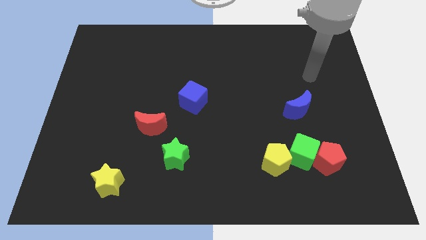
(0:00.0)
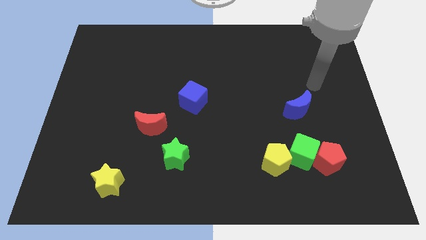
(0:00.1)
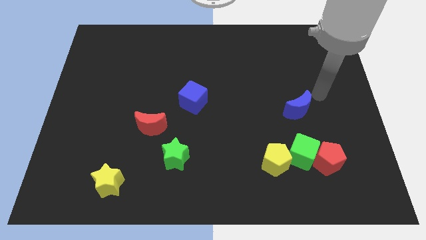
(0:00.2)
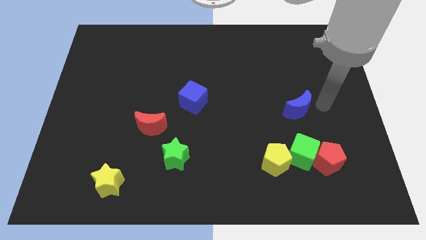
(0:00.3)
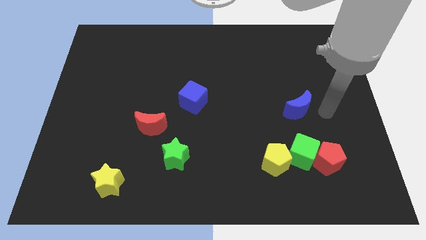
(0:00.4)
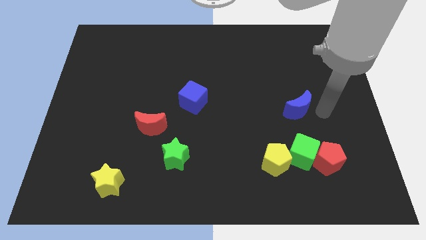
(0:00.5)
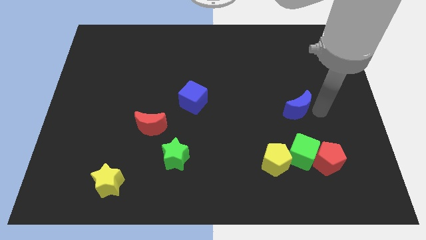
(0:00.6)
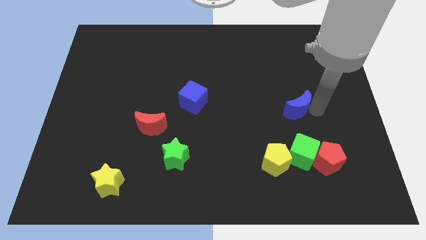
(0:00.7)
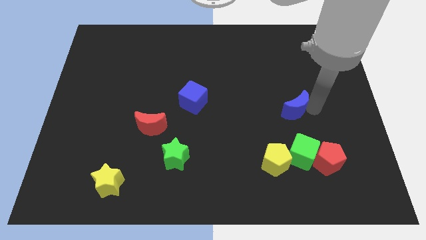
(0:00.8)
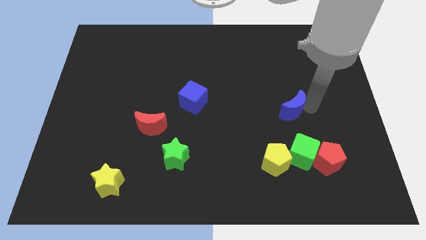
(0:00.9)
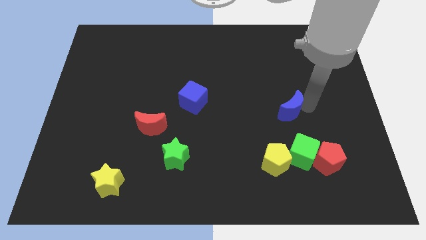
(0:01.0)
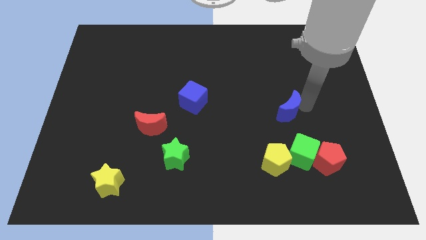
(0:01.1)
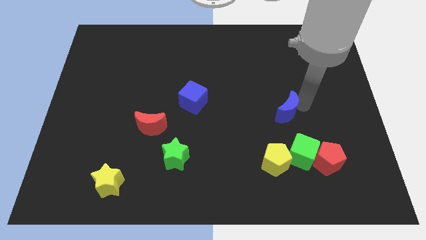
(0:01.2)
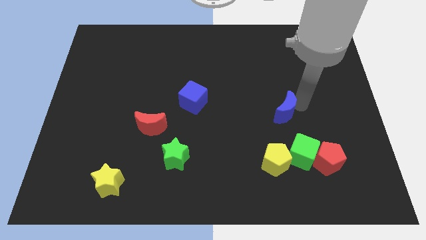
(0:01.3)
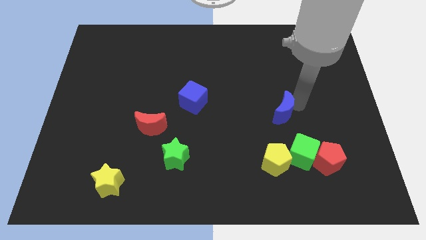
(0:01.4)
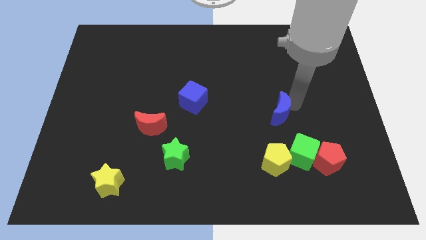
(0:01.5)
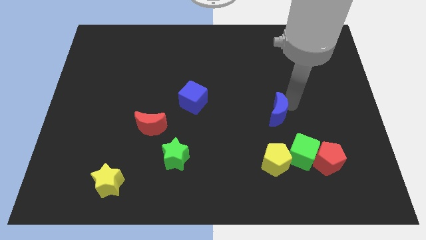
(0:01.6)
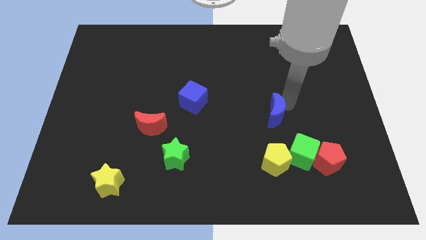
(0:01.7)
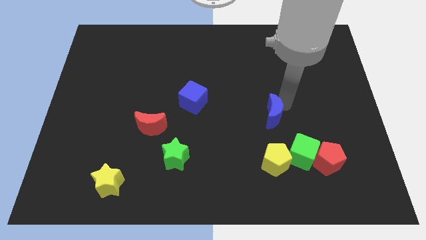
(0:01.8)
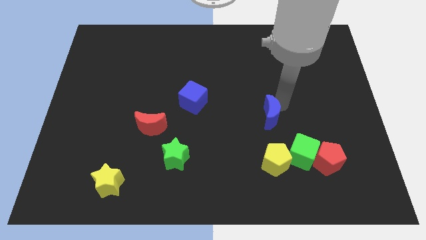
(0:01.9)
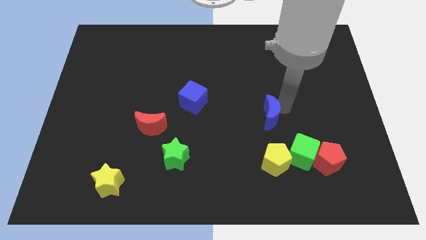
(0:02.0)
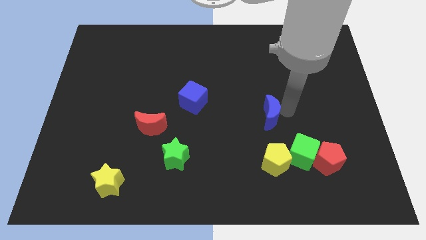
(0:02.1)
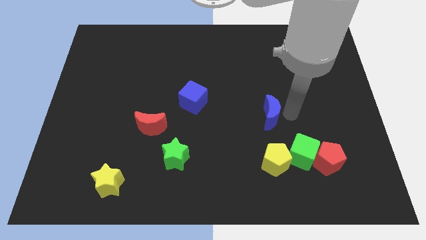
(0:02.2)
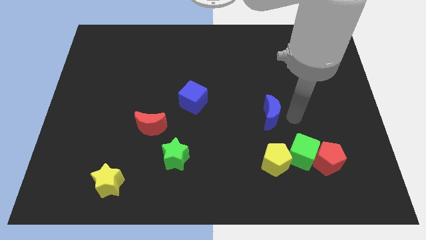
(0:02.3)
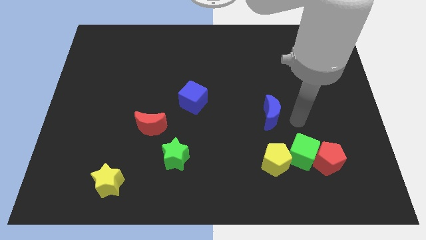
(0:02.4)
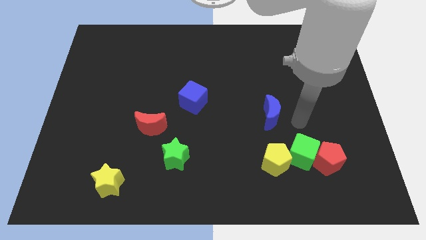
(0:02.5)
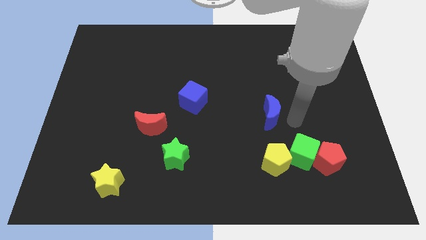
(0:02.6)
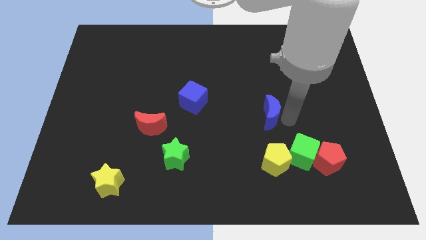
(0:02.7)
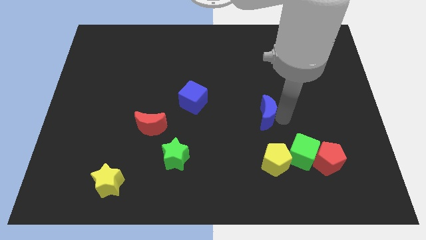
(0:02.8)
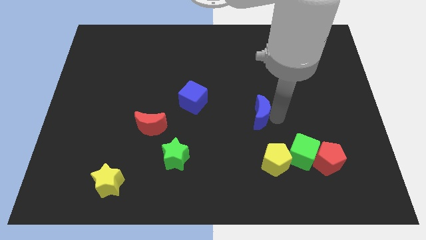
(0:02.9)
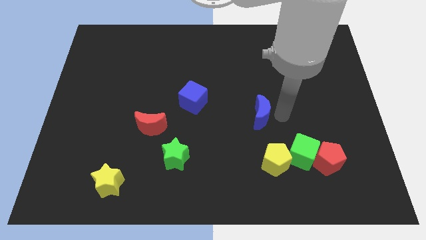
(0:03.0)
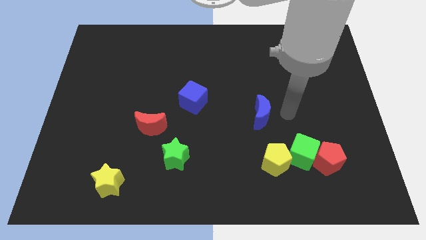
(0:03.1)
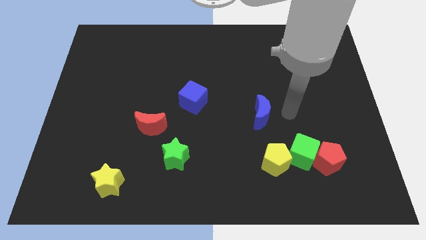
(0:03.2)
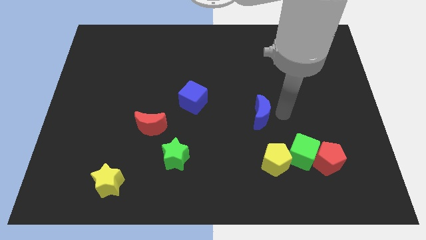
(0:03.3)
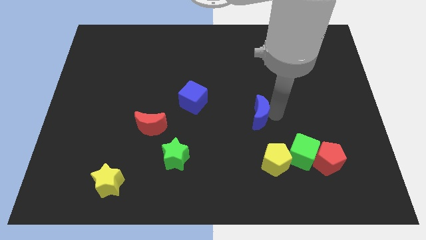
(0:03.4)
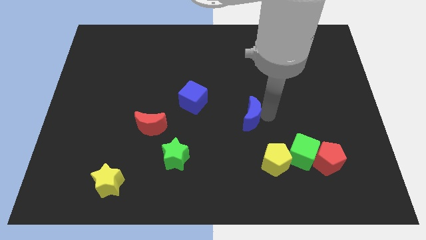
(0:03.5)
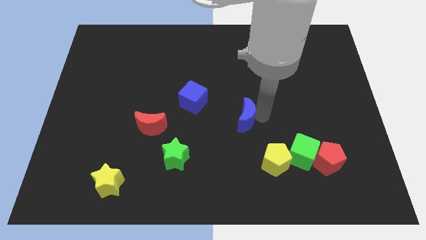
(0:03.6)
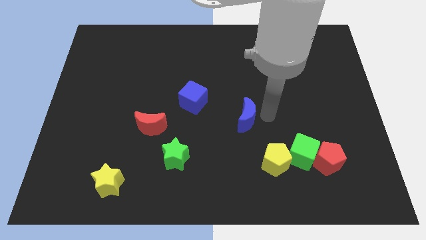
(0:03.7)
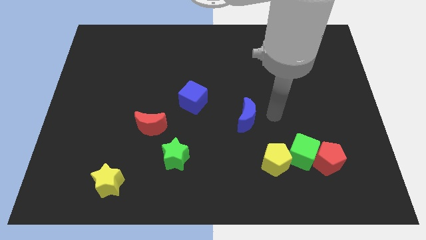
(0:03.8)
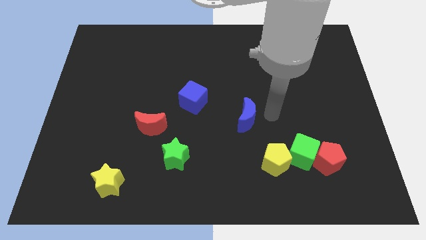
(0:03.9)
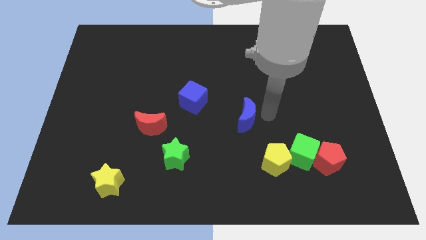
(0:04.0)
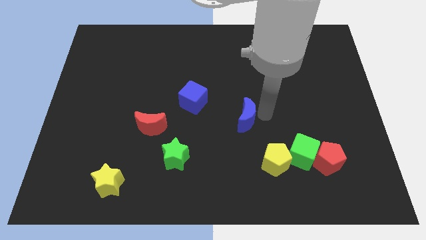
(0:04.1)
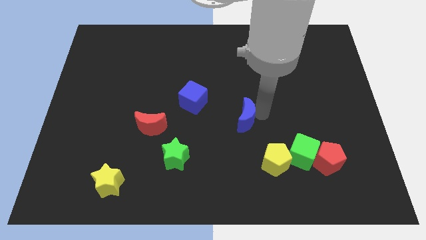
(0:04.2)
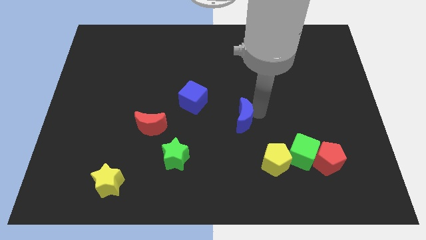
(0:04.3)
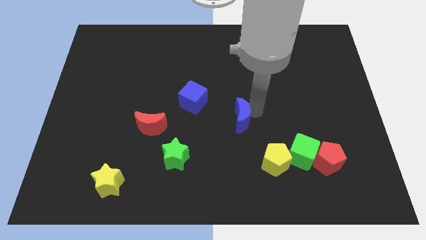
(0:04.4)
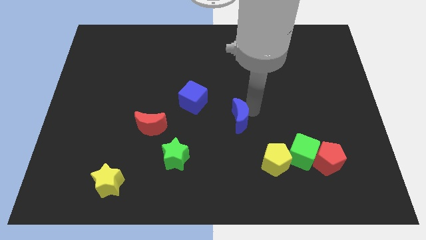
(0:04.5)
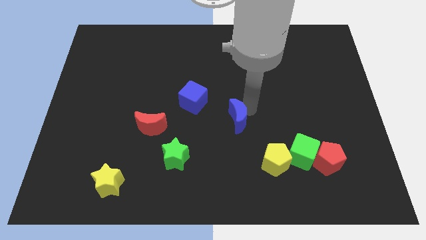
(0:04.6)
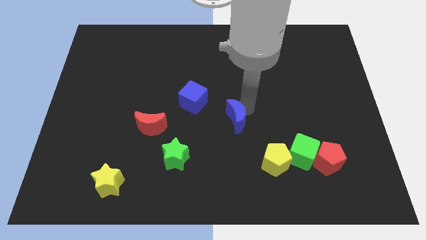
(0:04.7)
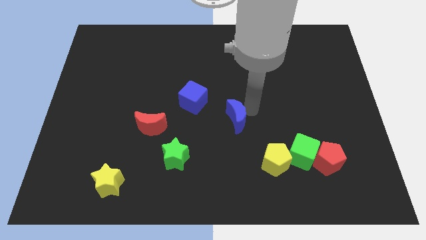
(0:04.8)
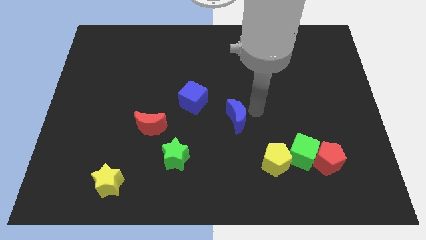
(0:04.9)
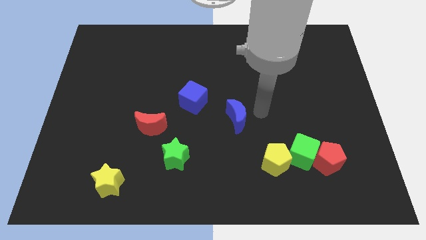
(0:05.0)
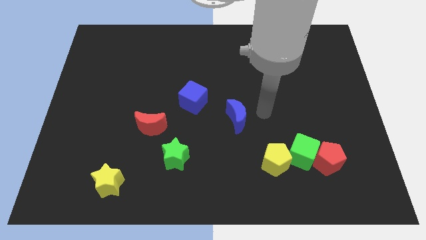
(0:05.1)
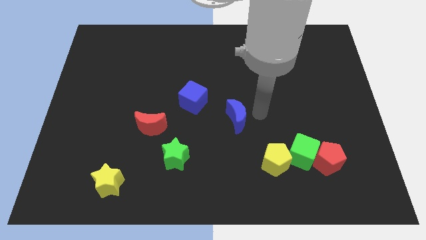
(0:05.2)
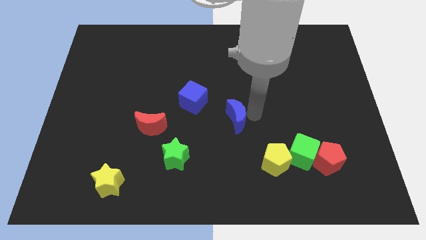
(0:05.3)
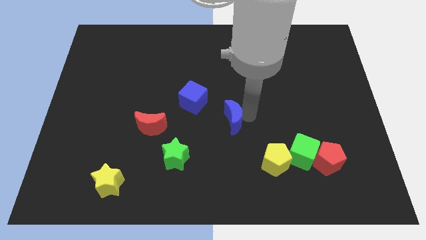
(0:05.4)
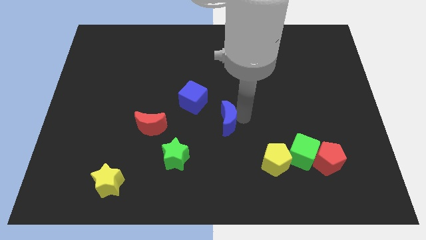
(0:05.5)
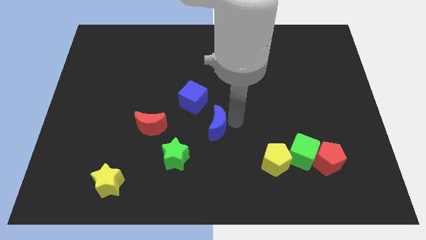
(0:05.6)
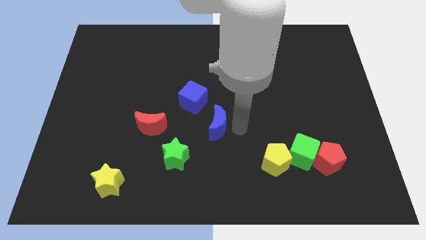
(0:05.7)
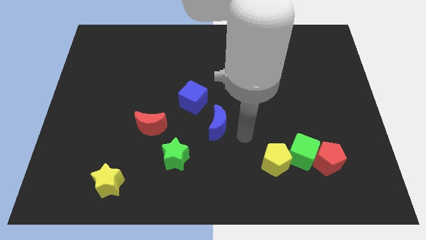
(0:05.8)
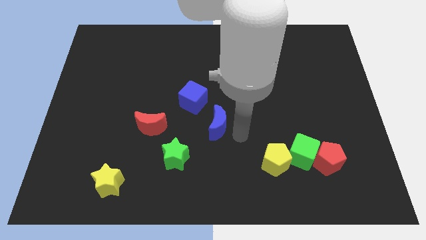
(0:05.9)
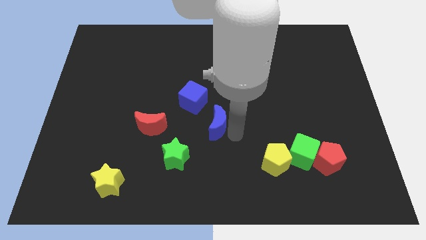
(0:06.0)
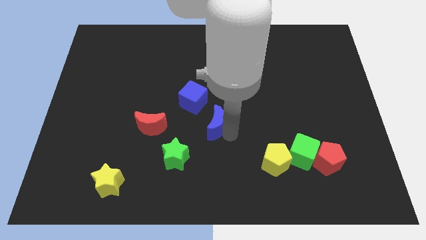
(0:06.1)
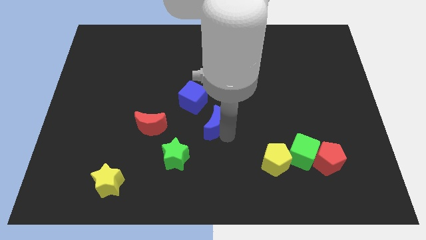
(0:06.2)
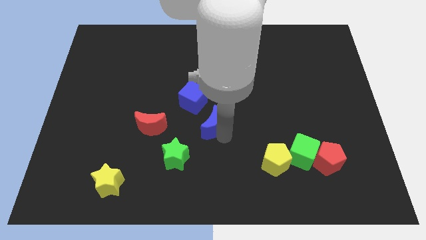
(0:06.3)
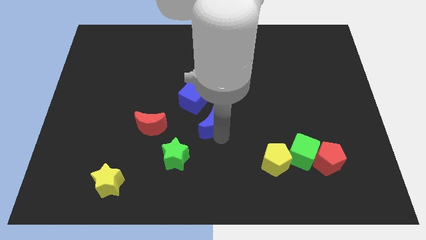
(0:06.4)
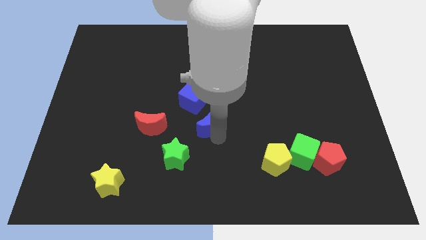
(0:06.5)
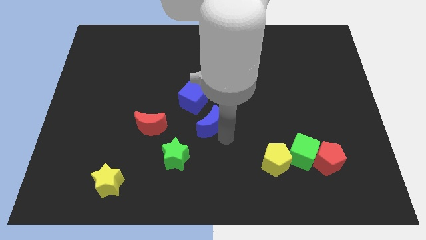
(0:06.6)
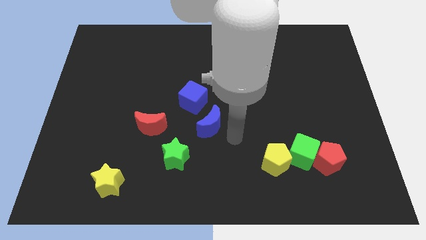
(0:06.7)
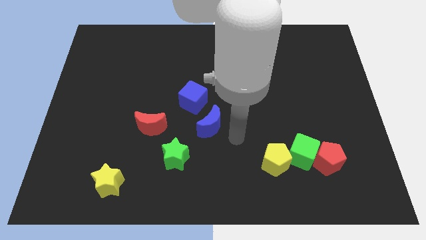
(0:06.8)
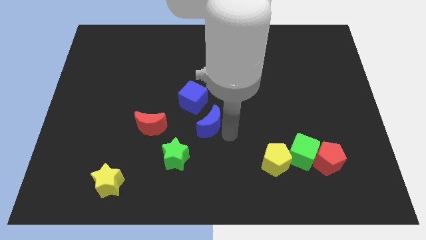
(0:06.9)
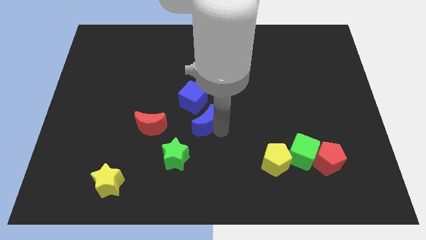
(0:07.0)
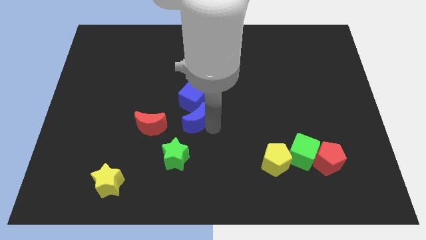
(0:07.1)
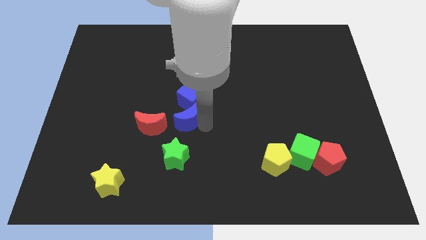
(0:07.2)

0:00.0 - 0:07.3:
push the blue moon diagonally up and to the right of the red moon

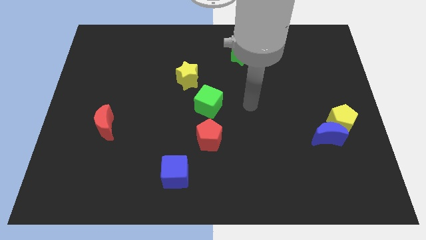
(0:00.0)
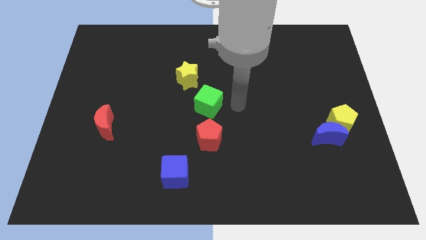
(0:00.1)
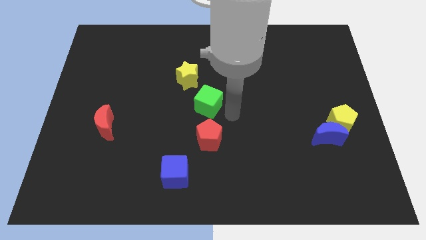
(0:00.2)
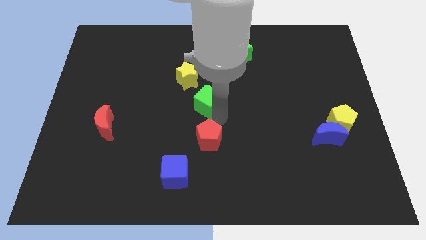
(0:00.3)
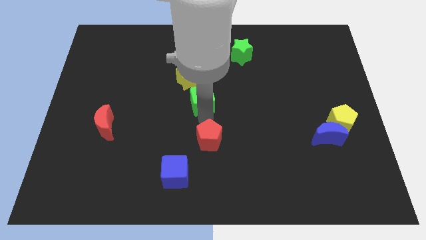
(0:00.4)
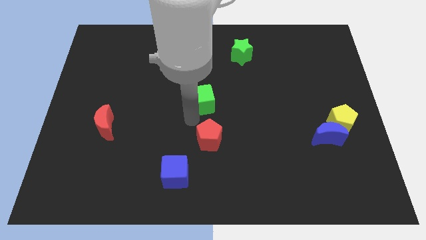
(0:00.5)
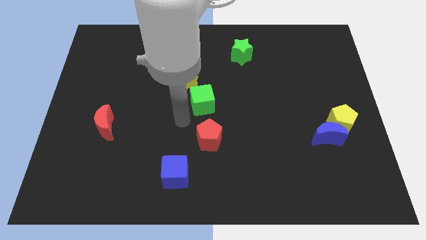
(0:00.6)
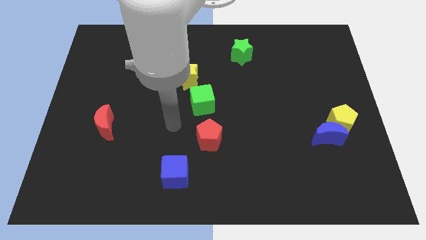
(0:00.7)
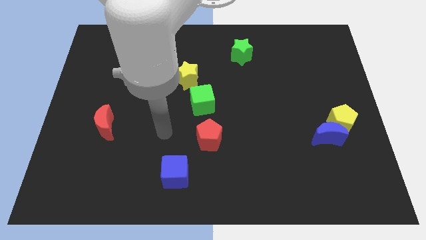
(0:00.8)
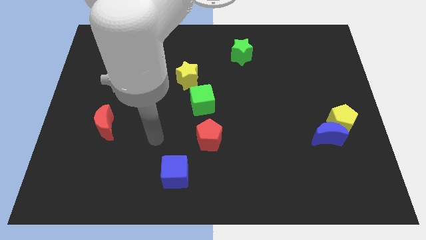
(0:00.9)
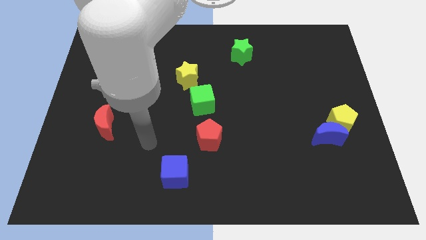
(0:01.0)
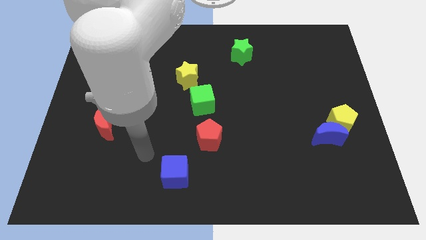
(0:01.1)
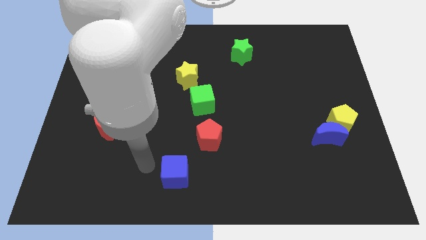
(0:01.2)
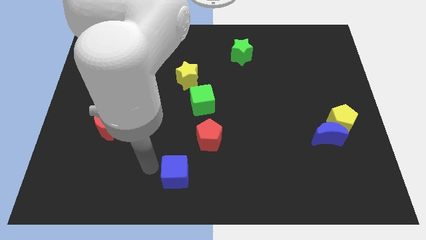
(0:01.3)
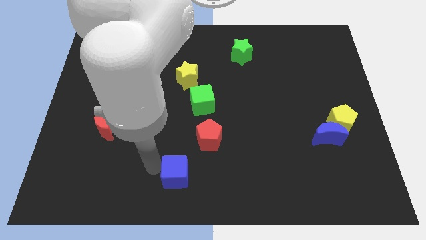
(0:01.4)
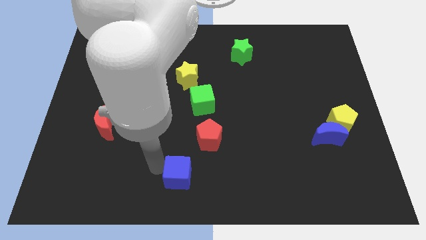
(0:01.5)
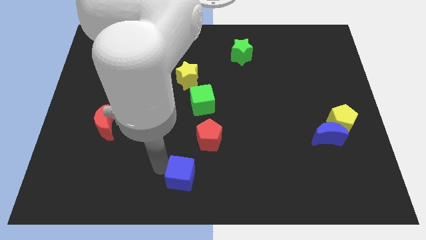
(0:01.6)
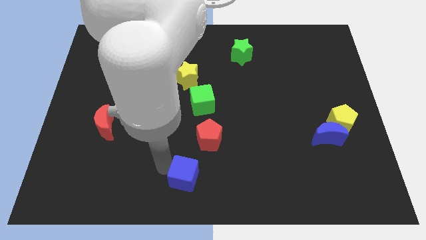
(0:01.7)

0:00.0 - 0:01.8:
slide the blue cube to the bottom side of the red pentagon
